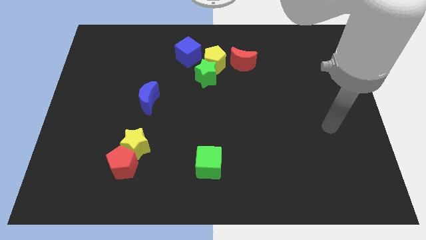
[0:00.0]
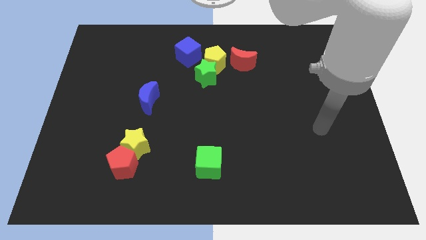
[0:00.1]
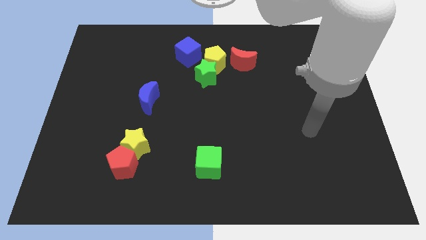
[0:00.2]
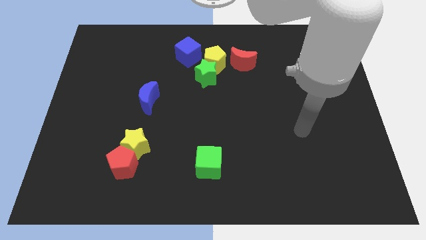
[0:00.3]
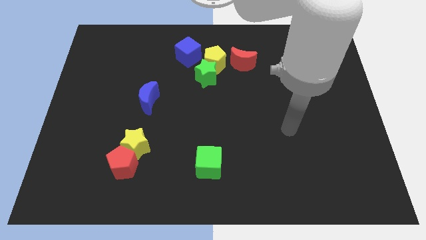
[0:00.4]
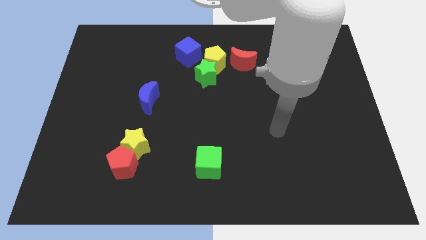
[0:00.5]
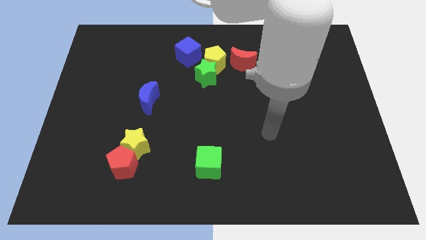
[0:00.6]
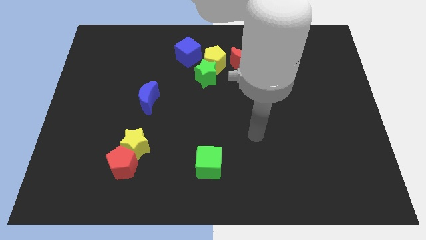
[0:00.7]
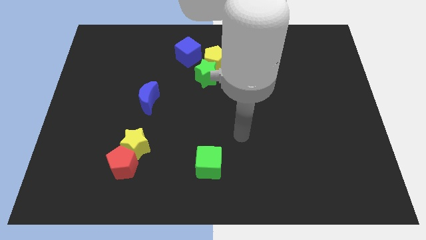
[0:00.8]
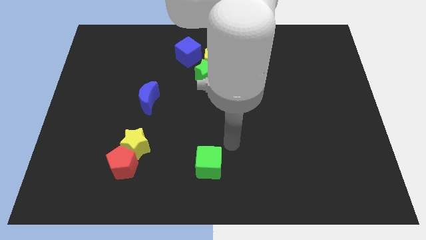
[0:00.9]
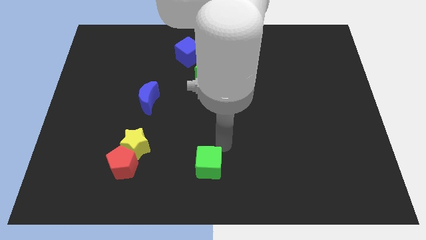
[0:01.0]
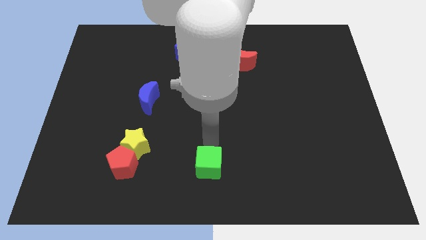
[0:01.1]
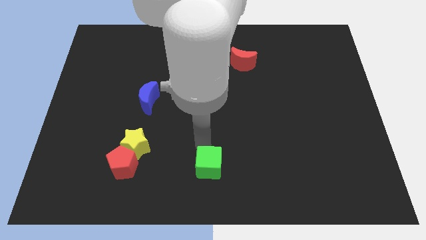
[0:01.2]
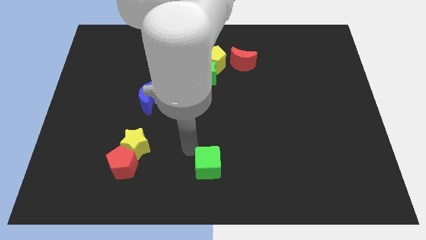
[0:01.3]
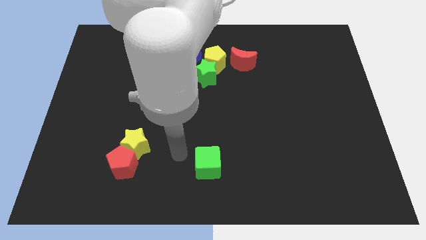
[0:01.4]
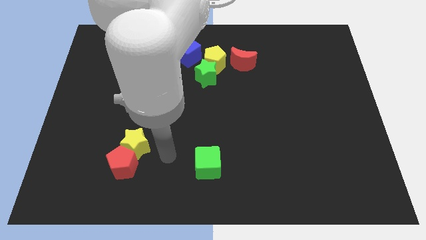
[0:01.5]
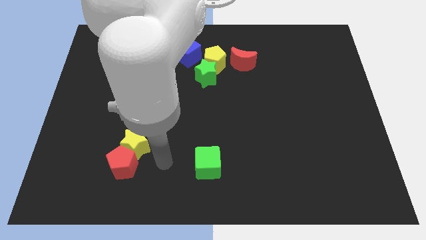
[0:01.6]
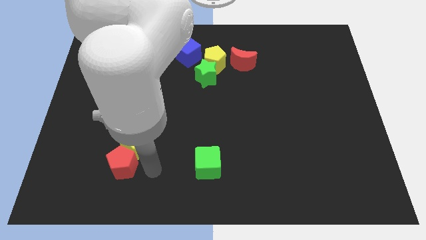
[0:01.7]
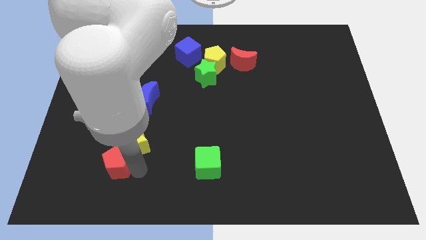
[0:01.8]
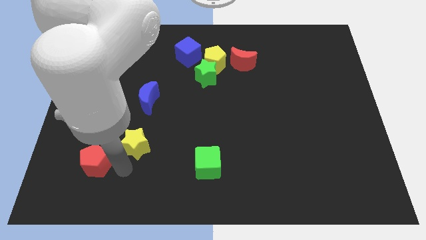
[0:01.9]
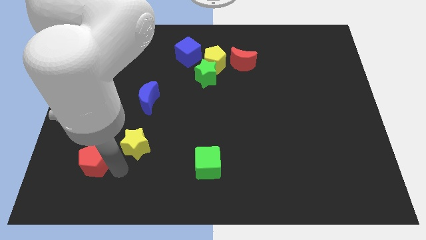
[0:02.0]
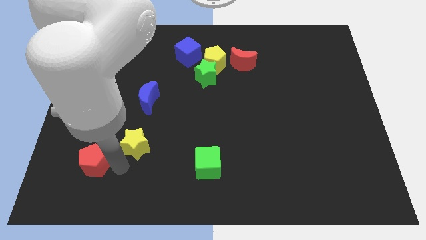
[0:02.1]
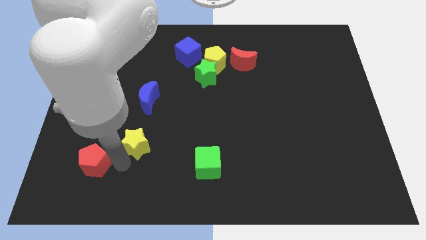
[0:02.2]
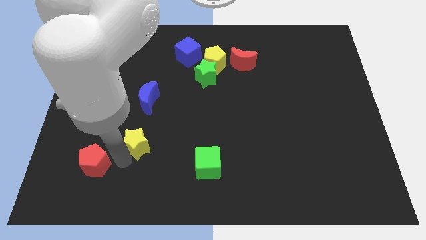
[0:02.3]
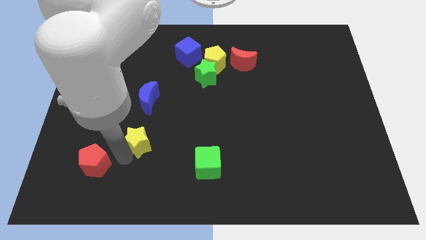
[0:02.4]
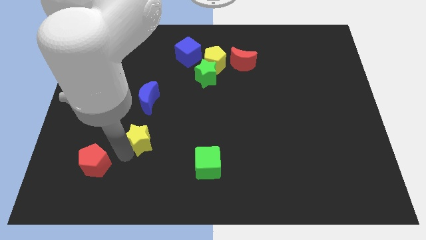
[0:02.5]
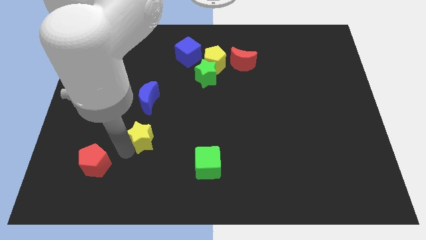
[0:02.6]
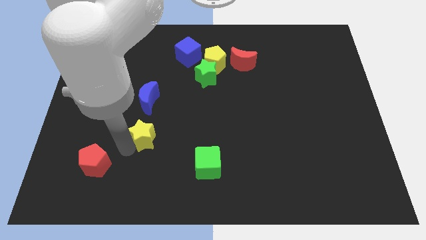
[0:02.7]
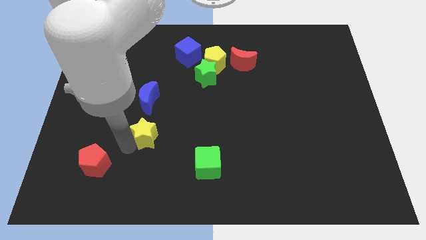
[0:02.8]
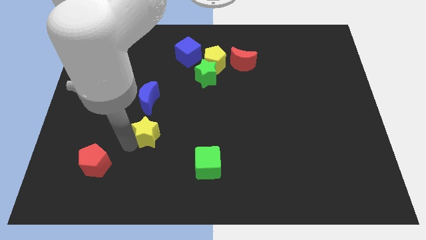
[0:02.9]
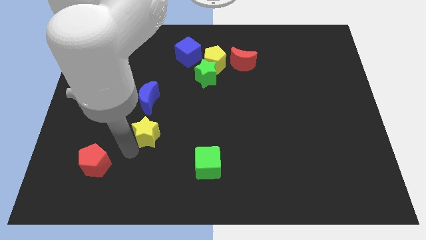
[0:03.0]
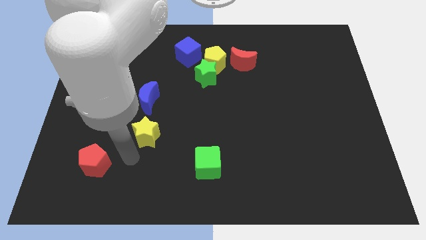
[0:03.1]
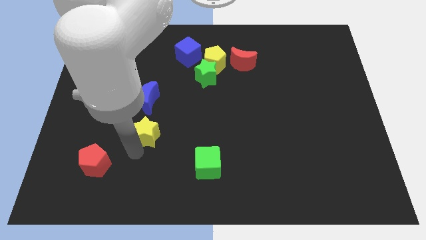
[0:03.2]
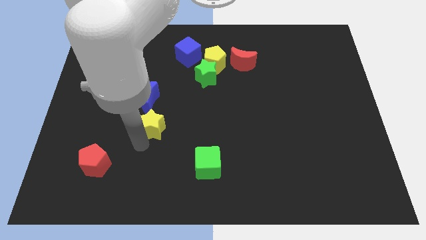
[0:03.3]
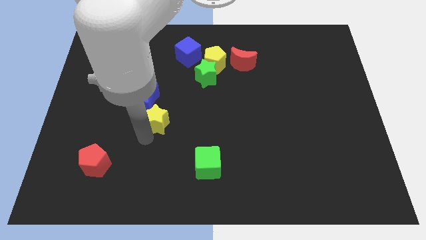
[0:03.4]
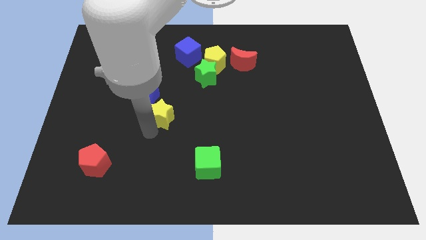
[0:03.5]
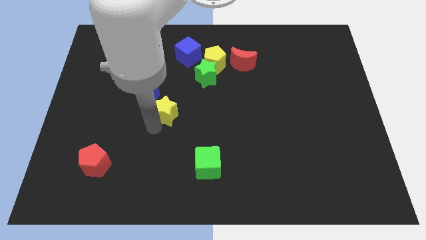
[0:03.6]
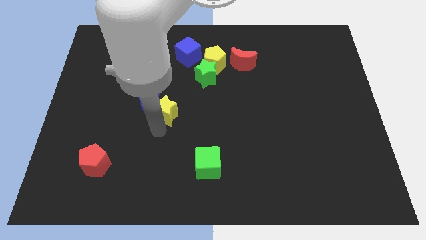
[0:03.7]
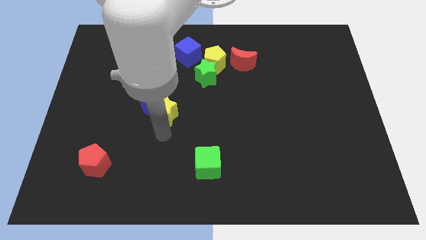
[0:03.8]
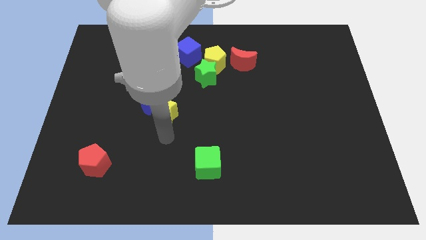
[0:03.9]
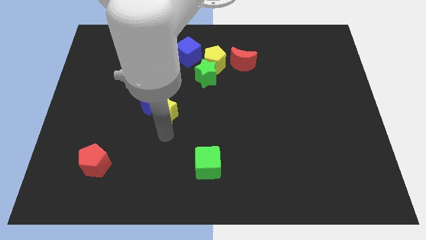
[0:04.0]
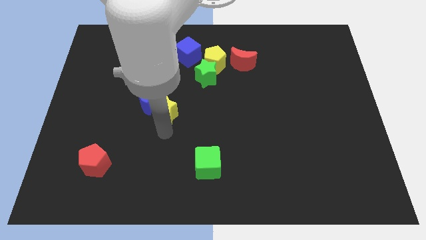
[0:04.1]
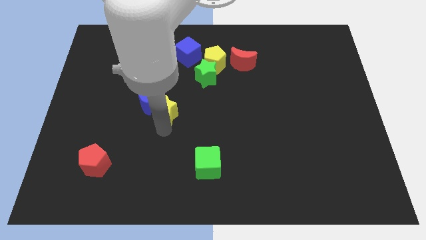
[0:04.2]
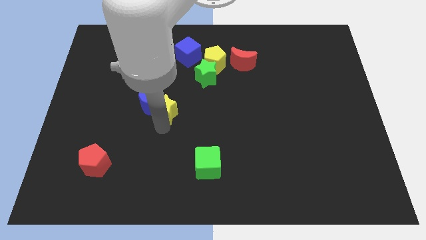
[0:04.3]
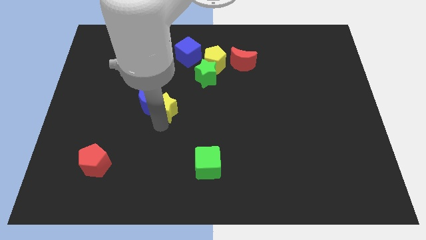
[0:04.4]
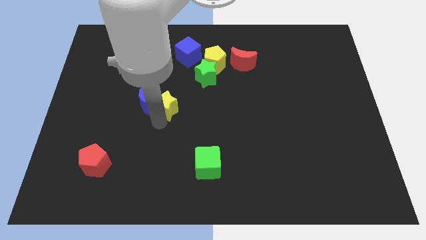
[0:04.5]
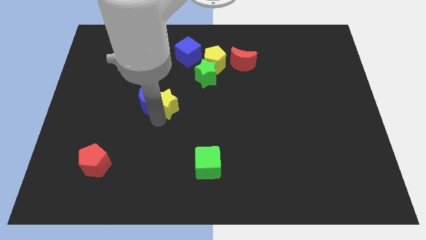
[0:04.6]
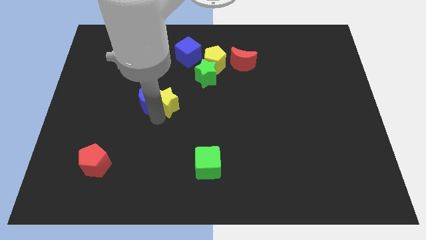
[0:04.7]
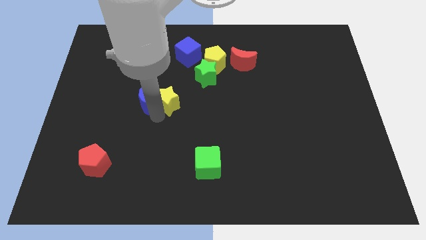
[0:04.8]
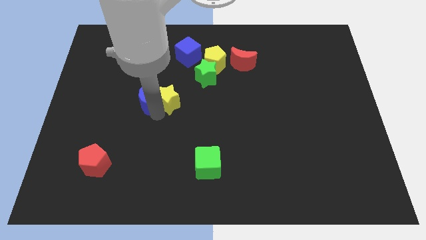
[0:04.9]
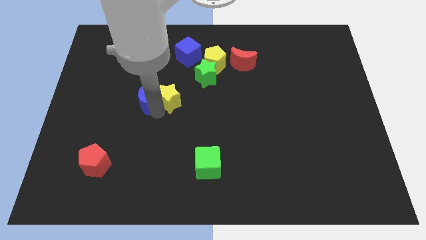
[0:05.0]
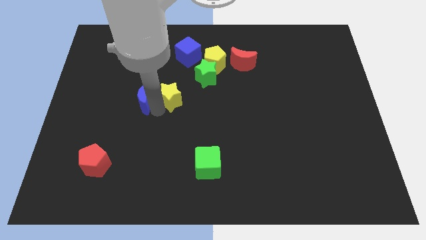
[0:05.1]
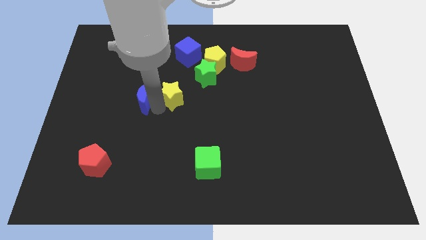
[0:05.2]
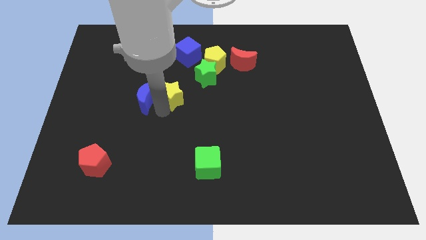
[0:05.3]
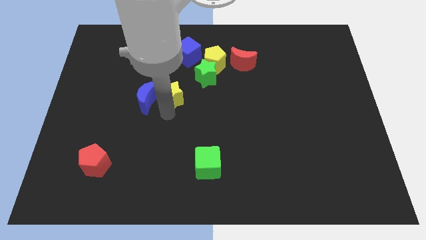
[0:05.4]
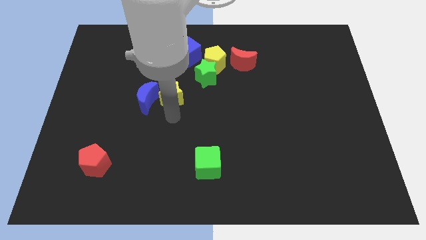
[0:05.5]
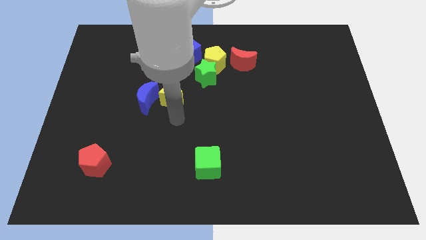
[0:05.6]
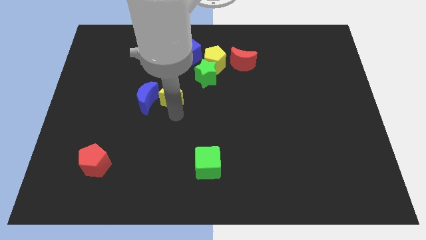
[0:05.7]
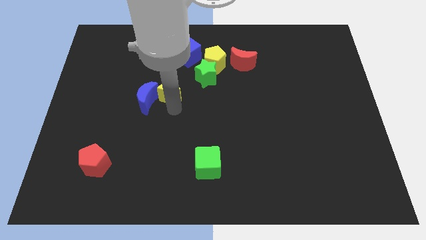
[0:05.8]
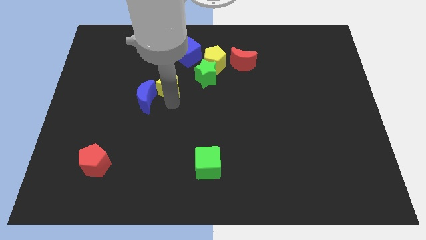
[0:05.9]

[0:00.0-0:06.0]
move the yellow star to the left of the green star

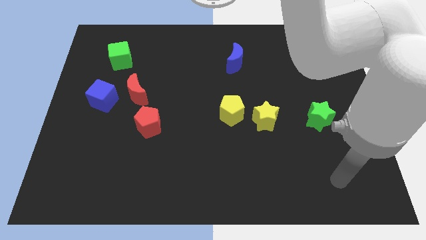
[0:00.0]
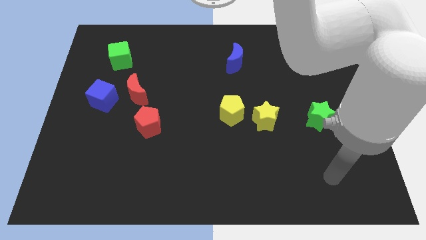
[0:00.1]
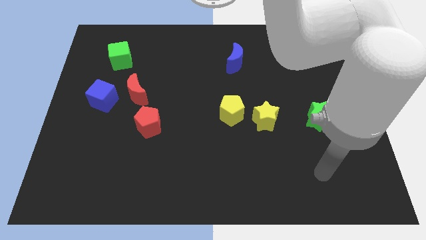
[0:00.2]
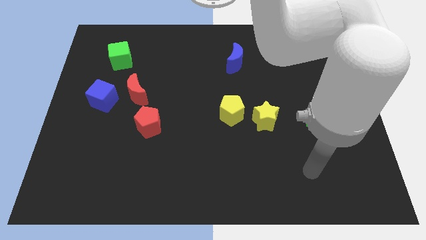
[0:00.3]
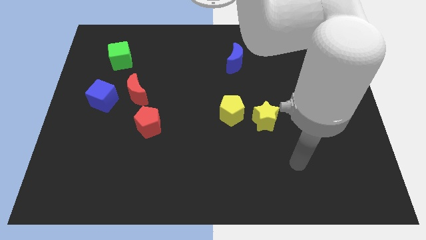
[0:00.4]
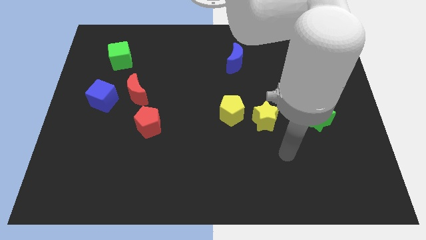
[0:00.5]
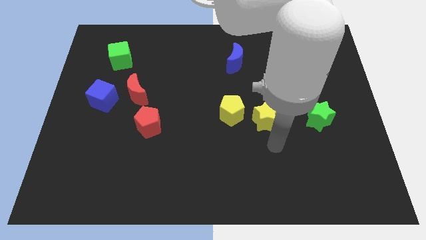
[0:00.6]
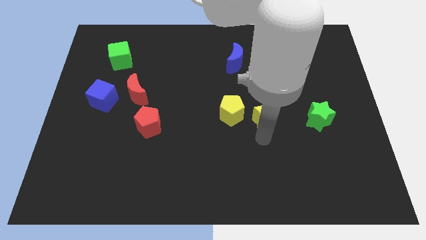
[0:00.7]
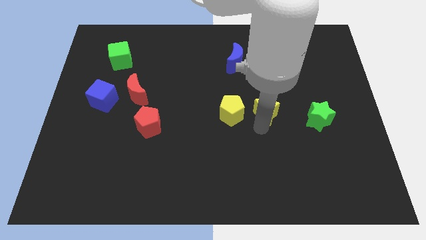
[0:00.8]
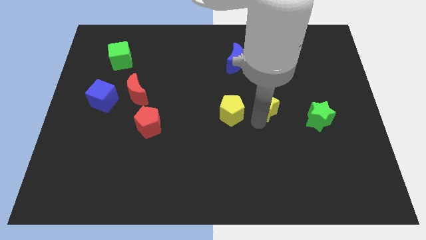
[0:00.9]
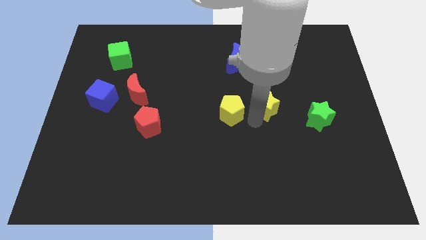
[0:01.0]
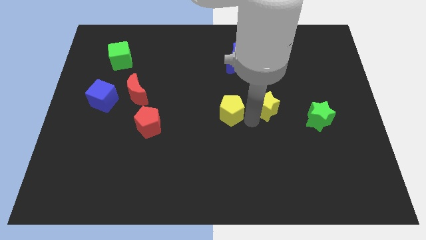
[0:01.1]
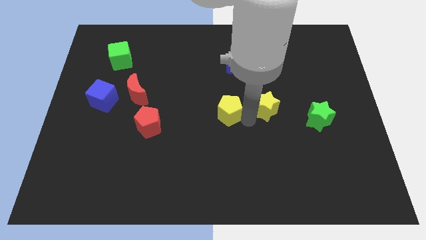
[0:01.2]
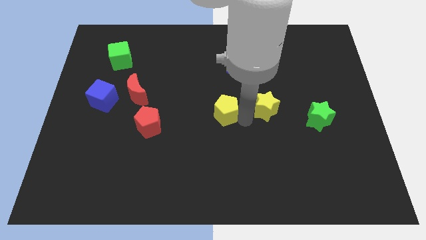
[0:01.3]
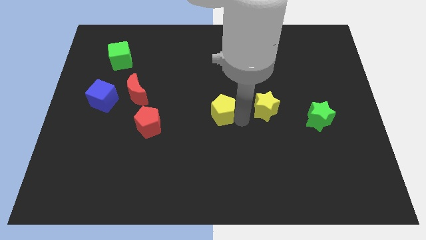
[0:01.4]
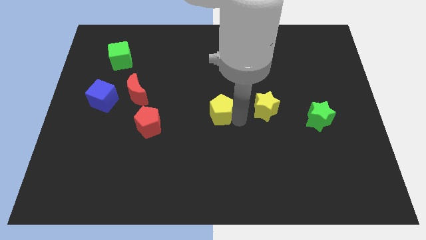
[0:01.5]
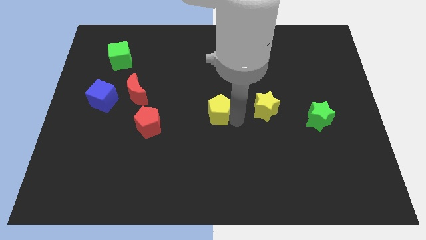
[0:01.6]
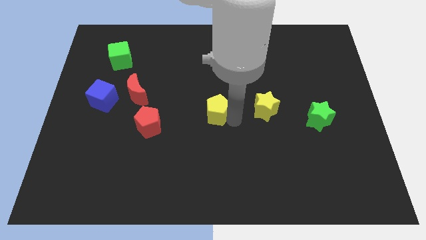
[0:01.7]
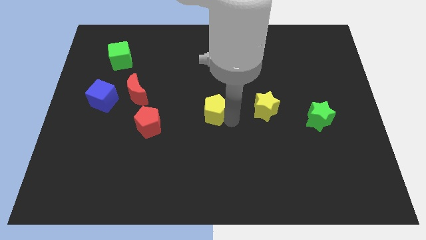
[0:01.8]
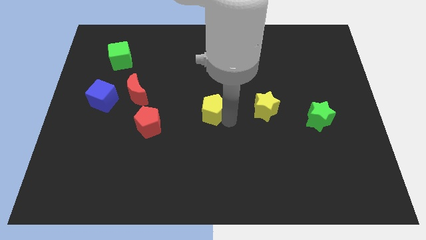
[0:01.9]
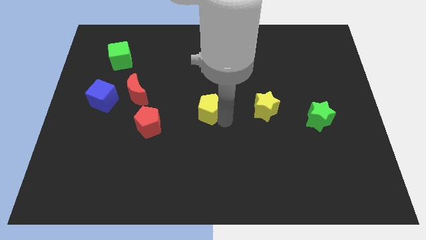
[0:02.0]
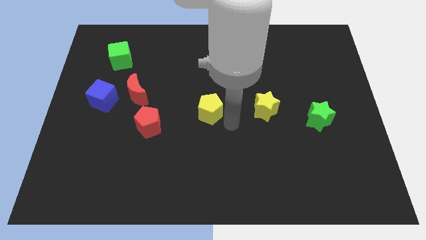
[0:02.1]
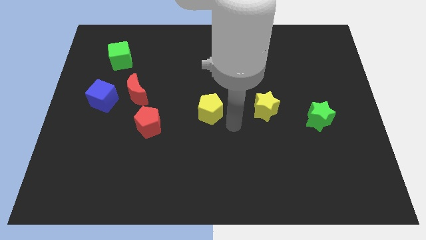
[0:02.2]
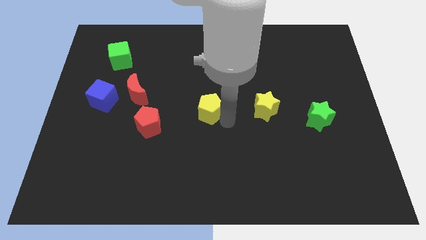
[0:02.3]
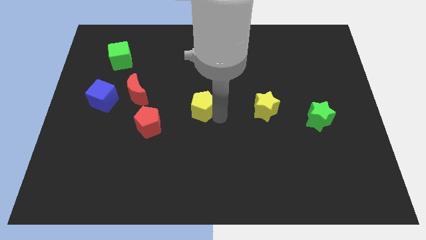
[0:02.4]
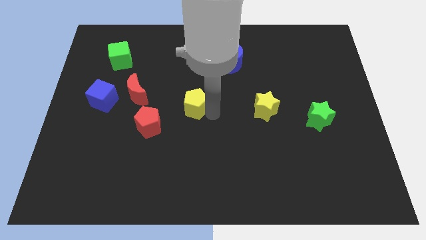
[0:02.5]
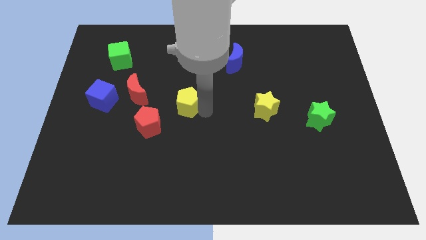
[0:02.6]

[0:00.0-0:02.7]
move the yellow pentagon to the right side of the red moon
